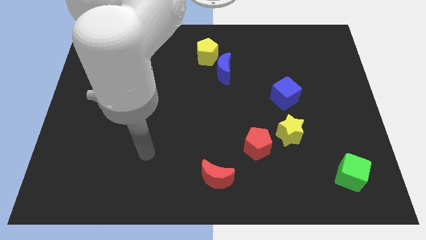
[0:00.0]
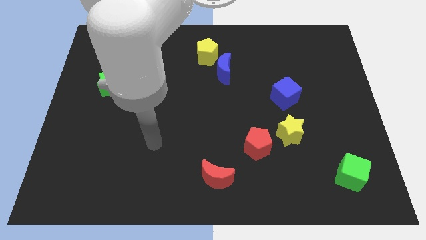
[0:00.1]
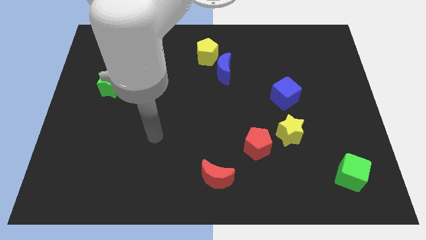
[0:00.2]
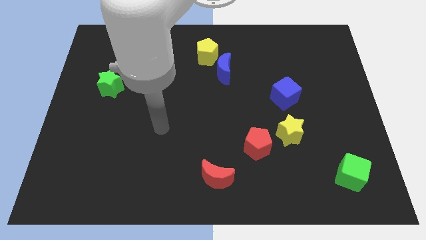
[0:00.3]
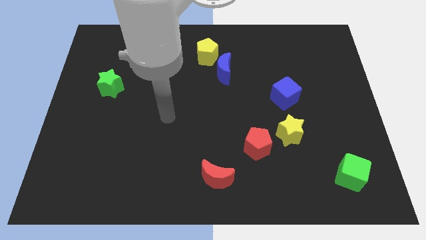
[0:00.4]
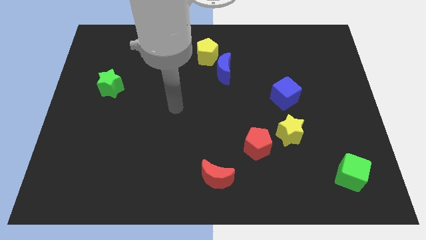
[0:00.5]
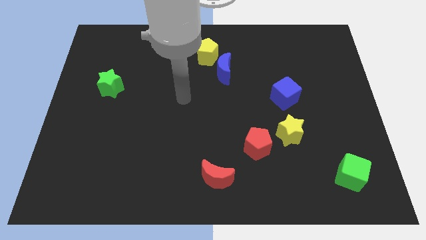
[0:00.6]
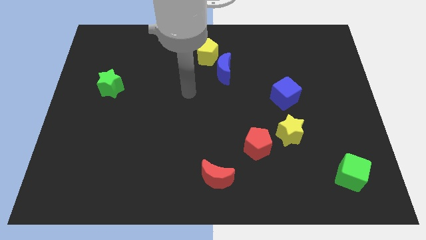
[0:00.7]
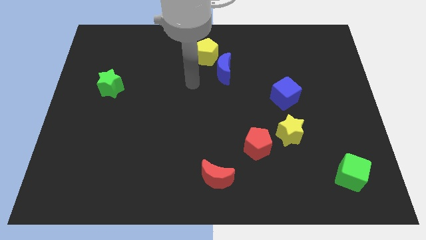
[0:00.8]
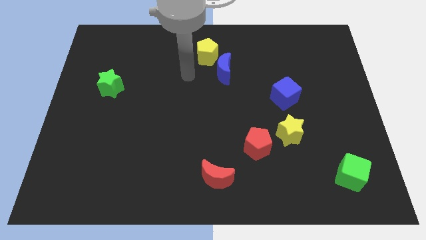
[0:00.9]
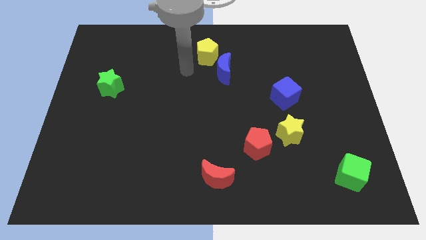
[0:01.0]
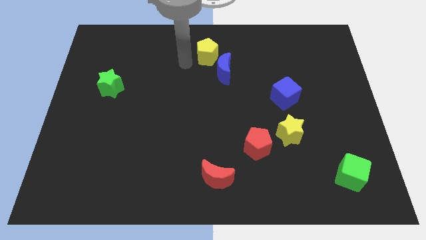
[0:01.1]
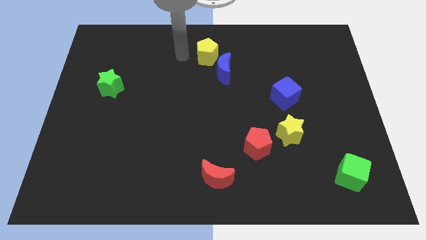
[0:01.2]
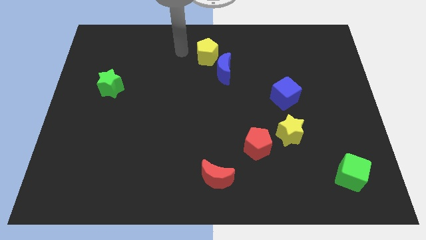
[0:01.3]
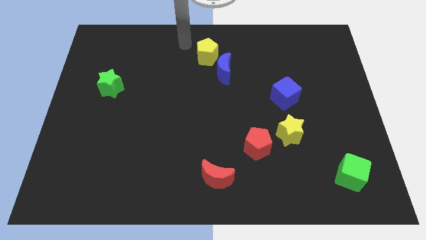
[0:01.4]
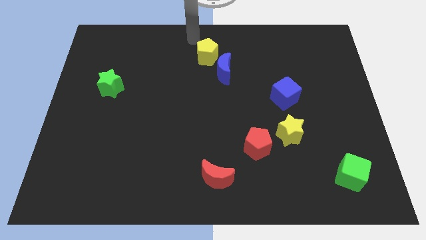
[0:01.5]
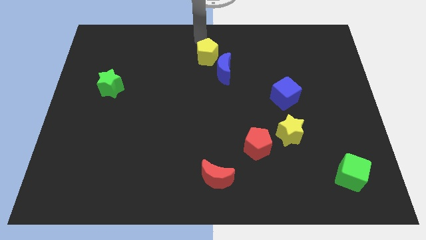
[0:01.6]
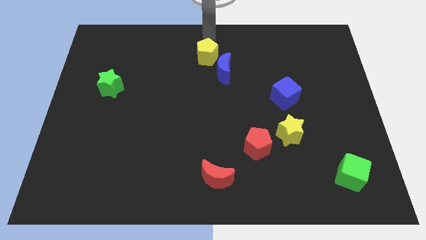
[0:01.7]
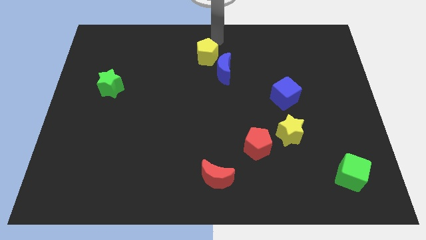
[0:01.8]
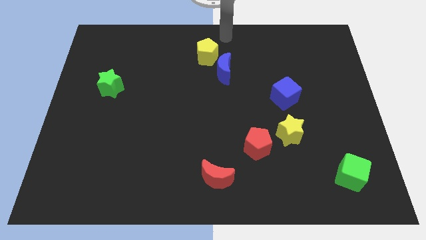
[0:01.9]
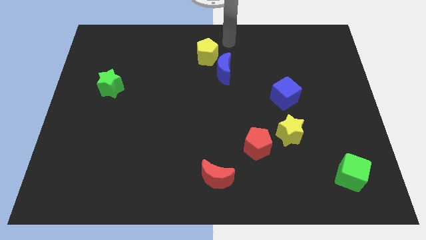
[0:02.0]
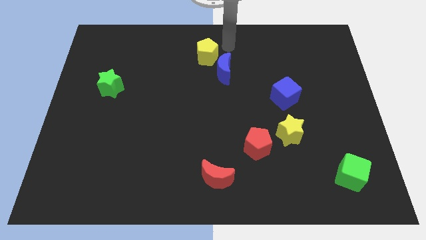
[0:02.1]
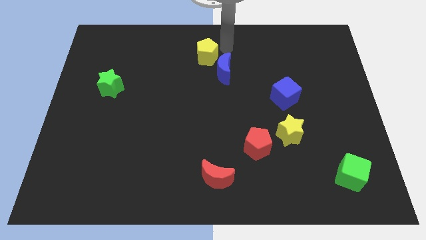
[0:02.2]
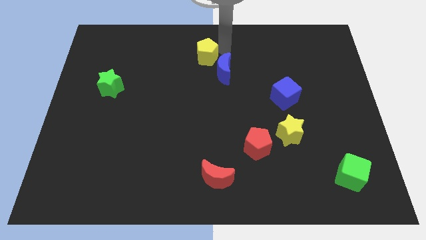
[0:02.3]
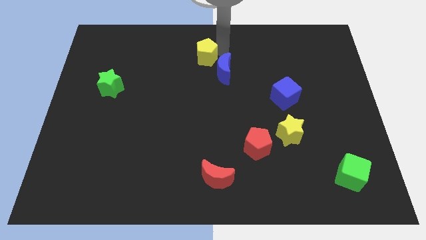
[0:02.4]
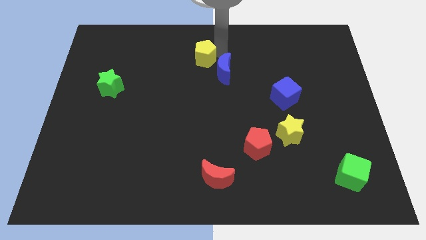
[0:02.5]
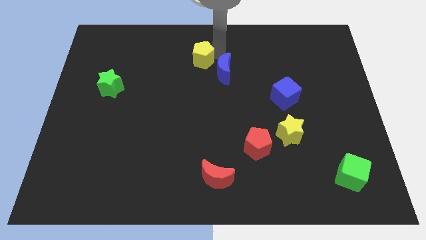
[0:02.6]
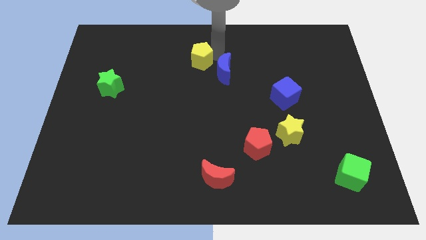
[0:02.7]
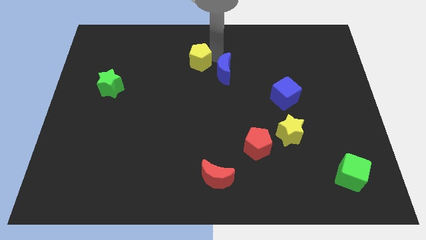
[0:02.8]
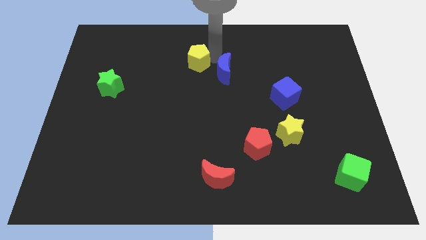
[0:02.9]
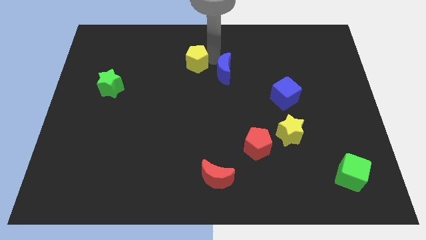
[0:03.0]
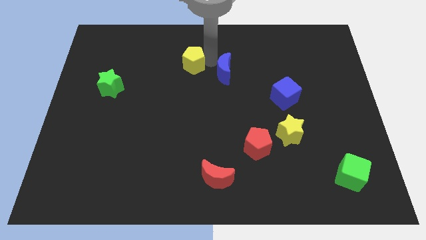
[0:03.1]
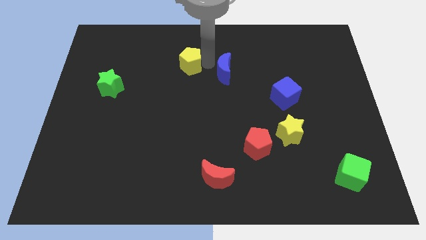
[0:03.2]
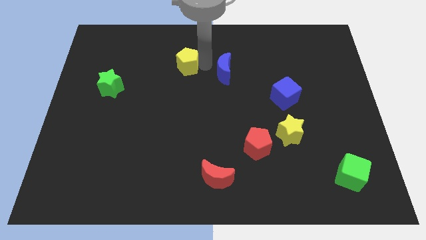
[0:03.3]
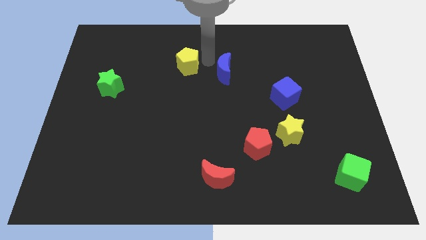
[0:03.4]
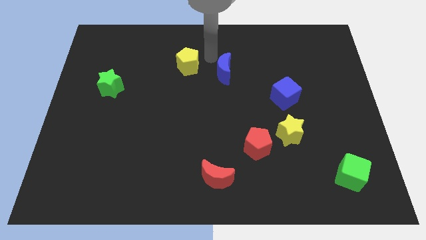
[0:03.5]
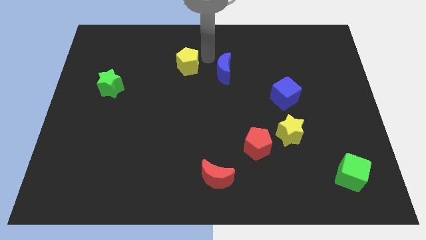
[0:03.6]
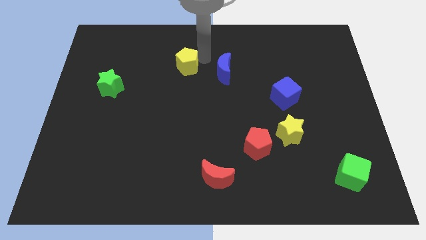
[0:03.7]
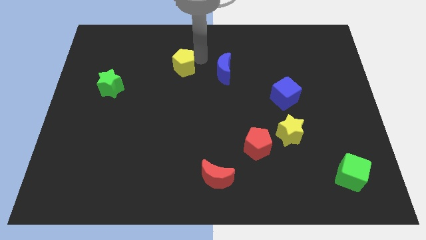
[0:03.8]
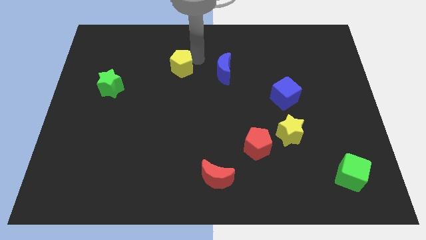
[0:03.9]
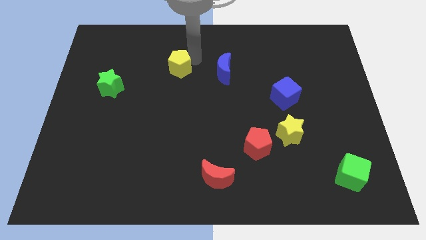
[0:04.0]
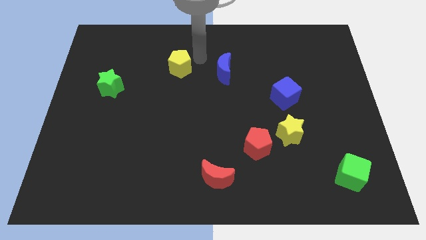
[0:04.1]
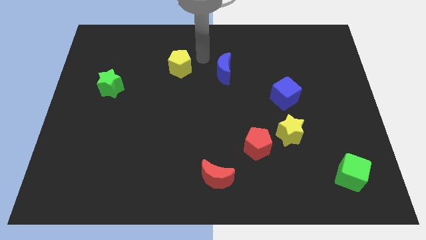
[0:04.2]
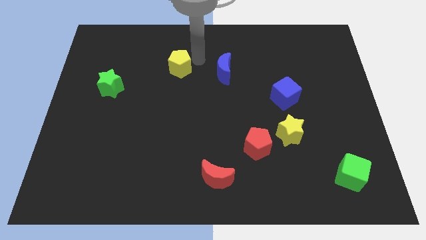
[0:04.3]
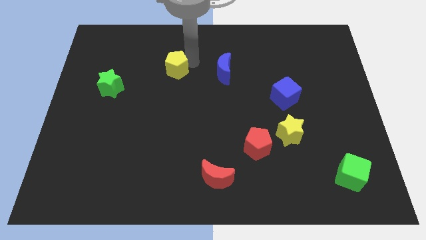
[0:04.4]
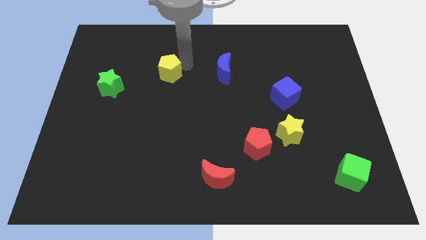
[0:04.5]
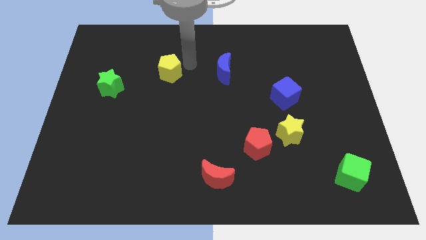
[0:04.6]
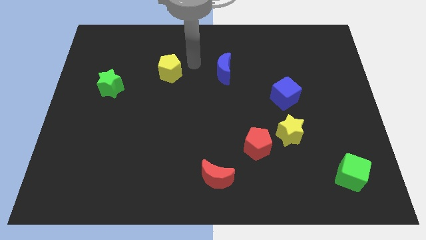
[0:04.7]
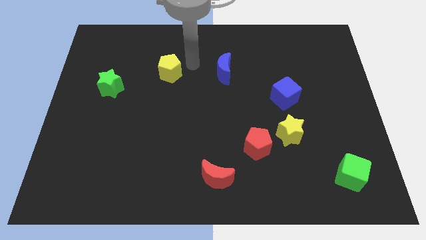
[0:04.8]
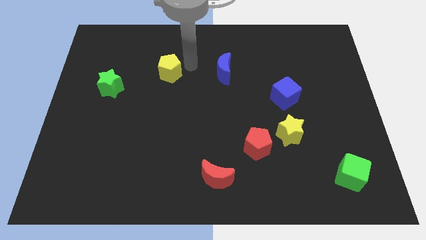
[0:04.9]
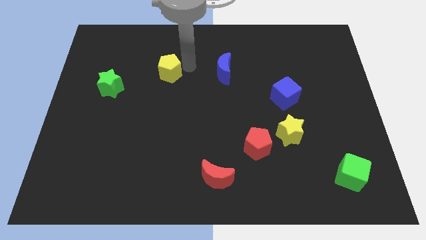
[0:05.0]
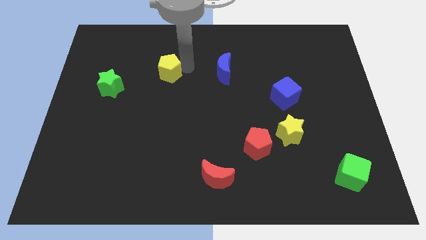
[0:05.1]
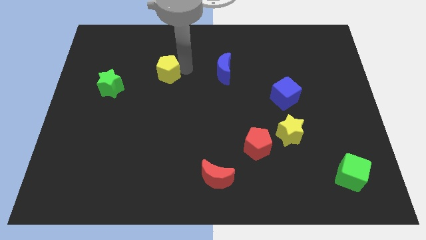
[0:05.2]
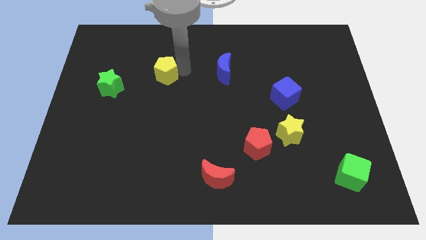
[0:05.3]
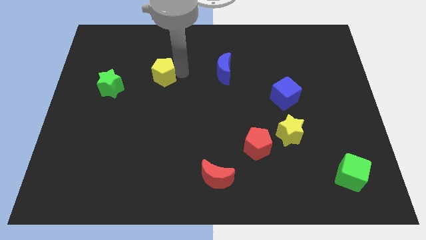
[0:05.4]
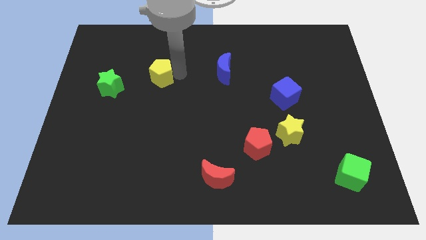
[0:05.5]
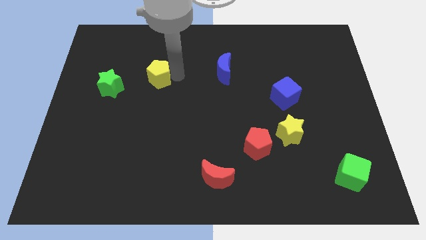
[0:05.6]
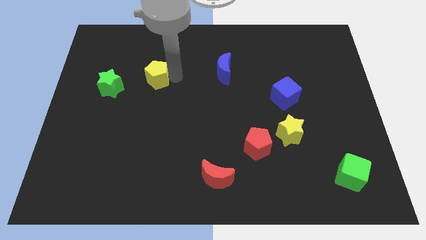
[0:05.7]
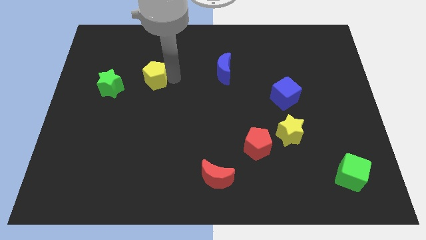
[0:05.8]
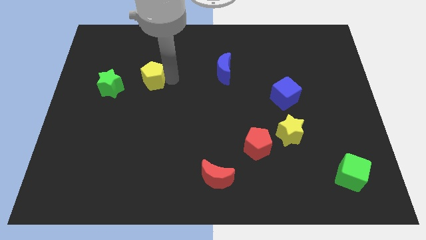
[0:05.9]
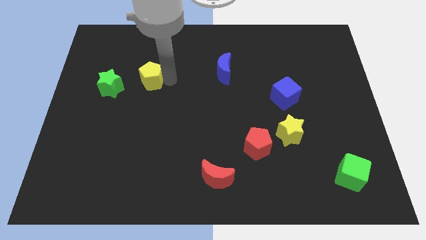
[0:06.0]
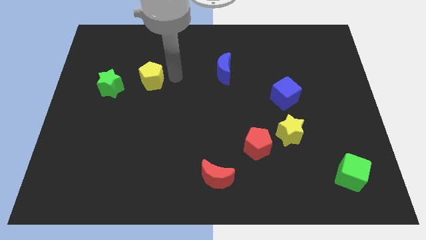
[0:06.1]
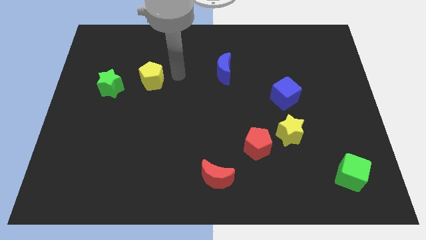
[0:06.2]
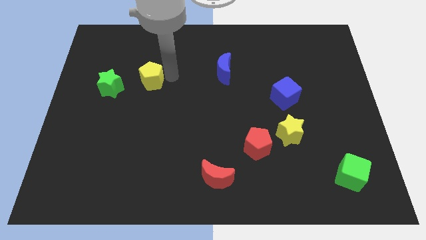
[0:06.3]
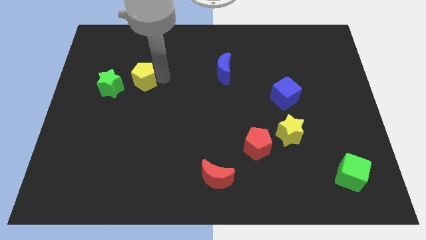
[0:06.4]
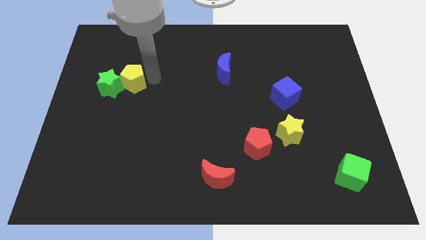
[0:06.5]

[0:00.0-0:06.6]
move the yellow pentagon close to the green star

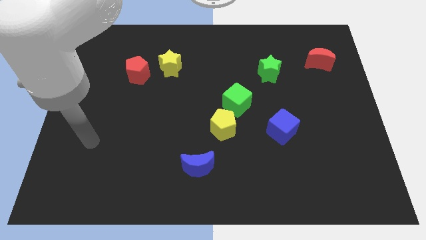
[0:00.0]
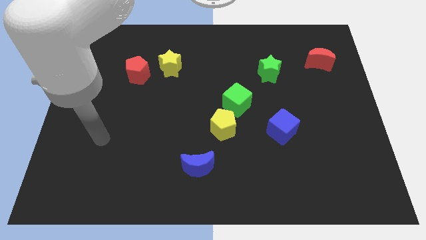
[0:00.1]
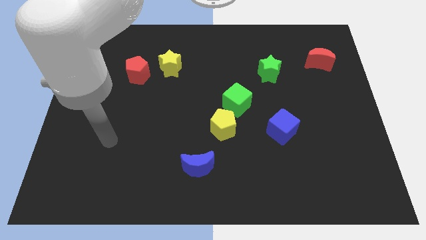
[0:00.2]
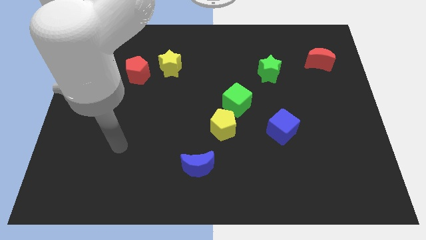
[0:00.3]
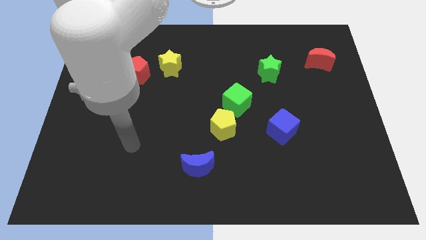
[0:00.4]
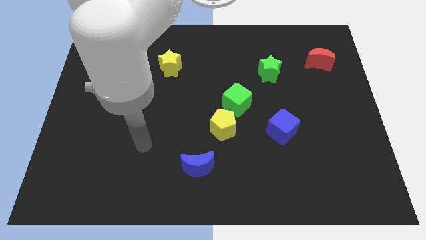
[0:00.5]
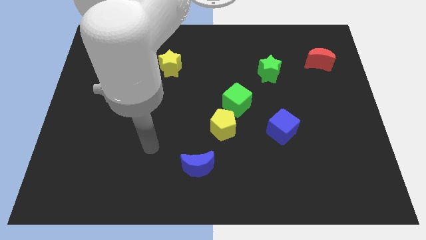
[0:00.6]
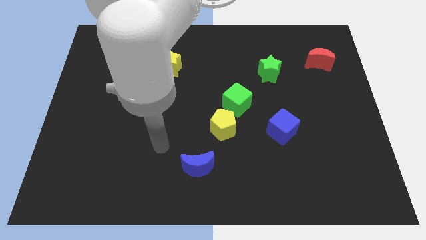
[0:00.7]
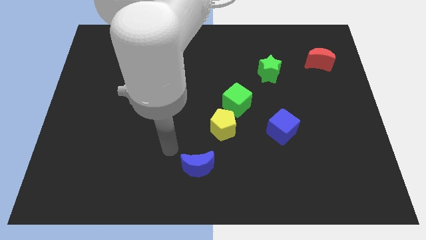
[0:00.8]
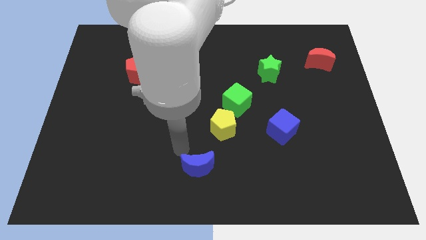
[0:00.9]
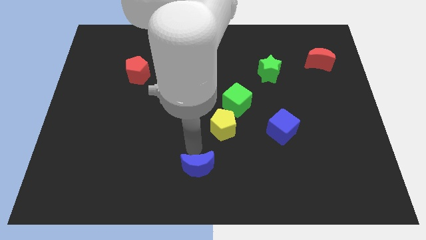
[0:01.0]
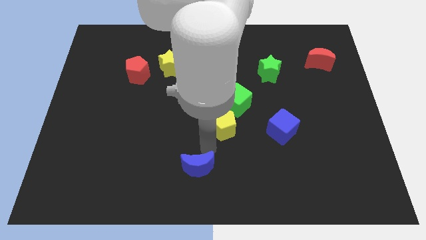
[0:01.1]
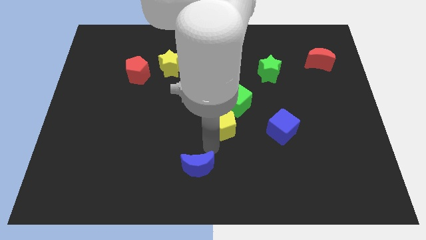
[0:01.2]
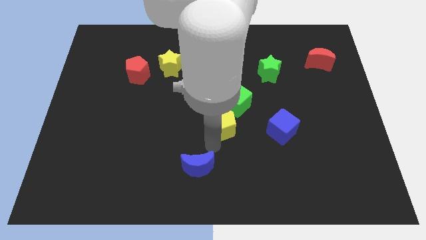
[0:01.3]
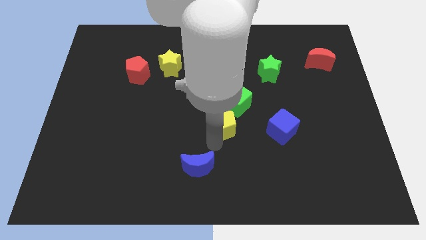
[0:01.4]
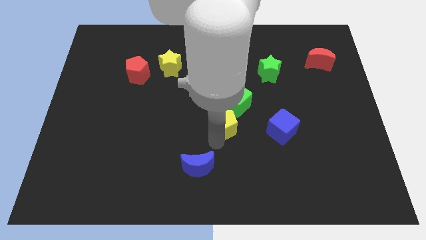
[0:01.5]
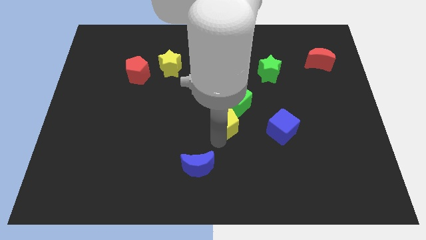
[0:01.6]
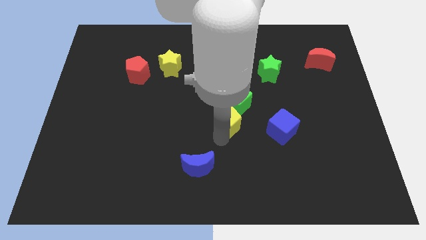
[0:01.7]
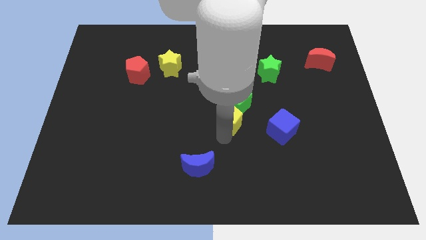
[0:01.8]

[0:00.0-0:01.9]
push the yellow pentagon close to the green cube
